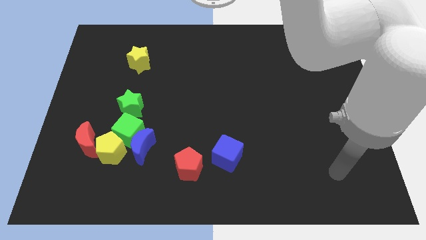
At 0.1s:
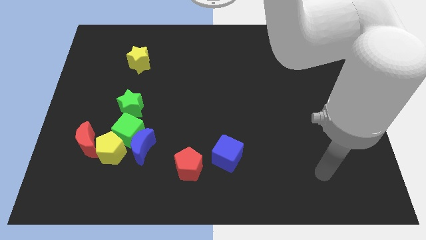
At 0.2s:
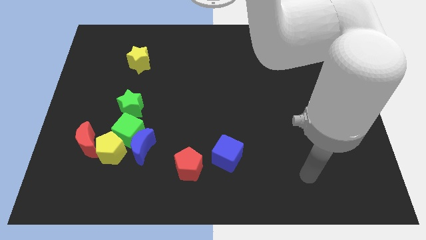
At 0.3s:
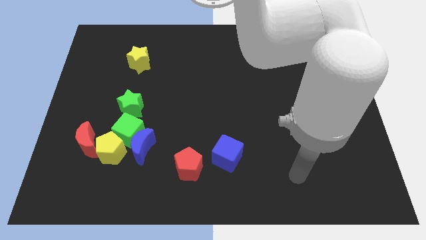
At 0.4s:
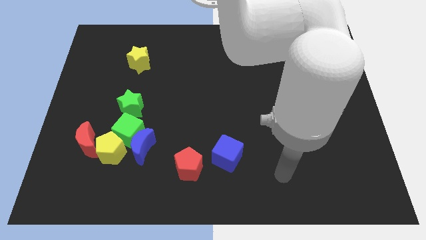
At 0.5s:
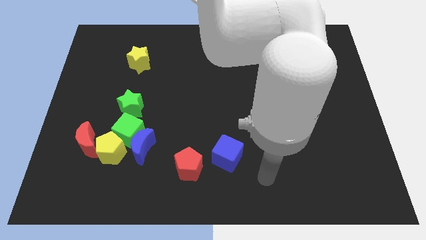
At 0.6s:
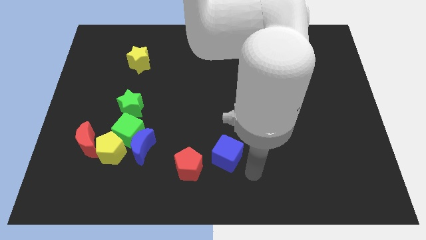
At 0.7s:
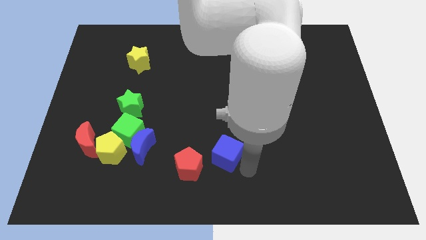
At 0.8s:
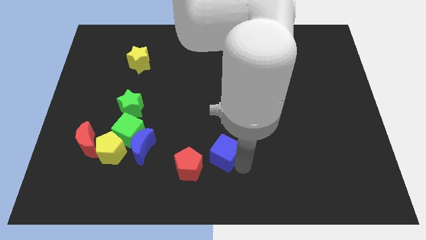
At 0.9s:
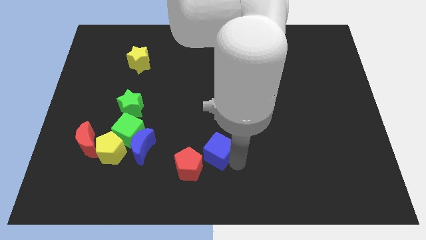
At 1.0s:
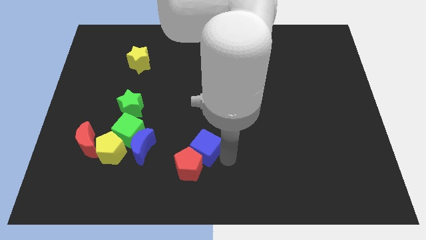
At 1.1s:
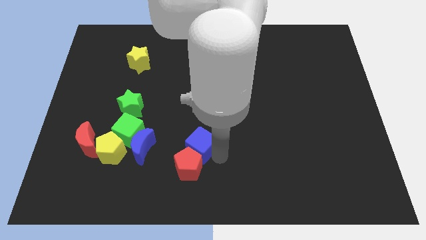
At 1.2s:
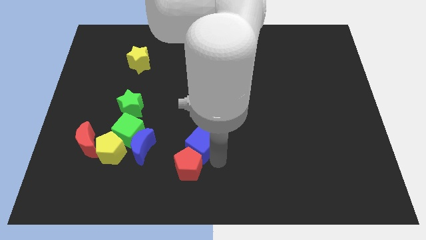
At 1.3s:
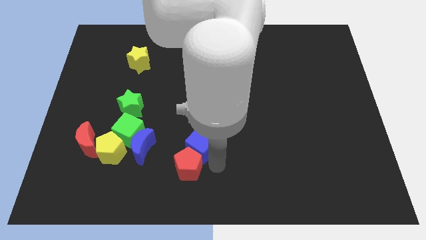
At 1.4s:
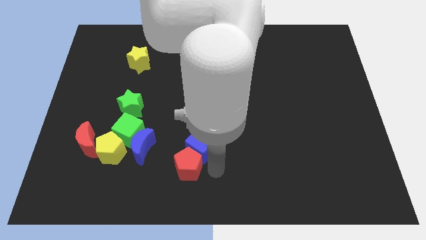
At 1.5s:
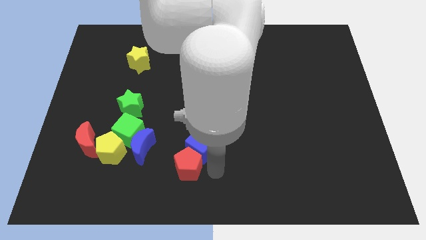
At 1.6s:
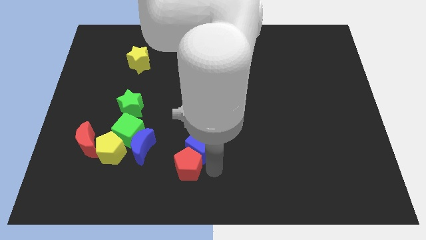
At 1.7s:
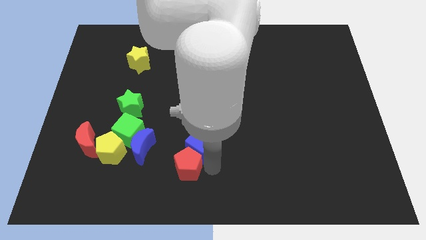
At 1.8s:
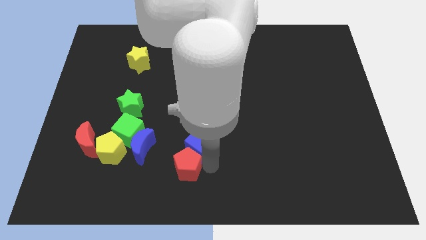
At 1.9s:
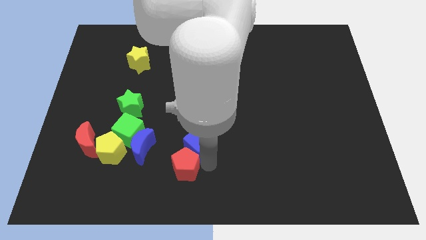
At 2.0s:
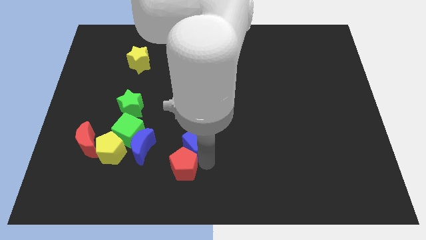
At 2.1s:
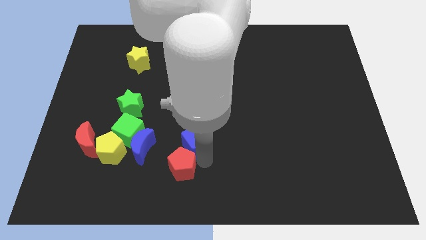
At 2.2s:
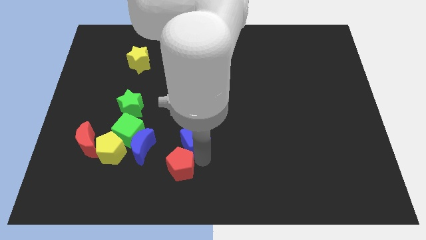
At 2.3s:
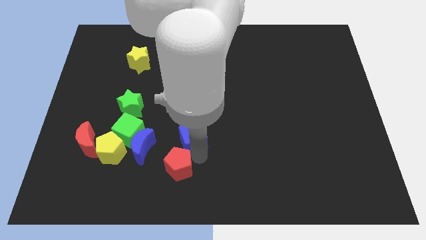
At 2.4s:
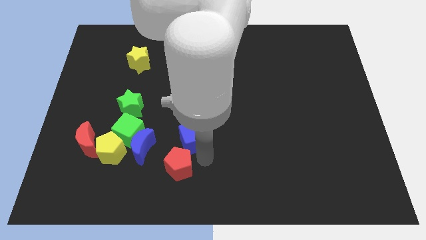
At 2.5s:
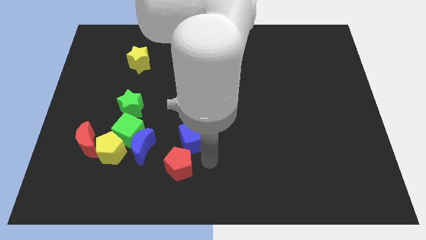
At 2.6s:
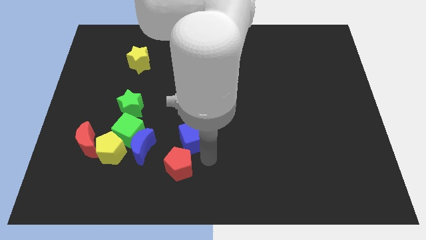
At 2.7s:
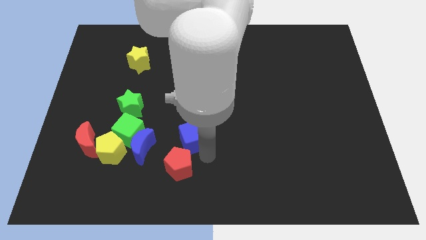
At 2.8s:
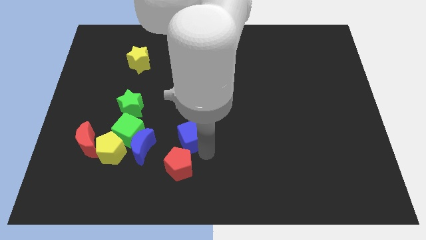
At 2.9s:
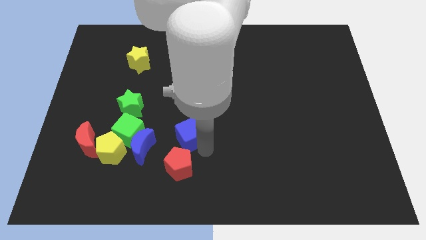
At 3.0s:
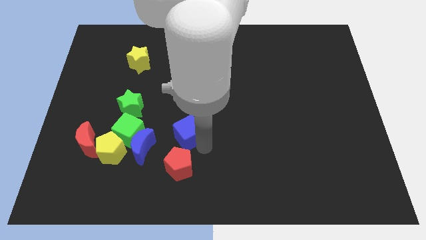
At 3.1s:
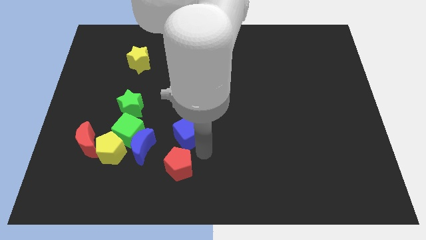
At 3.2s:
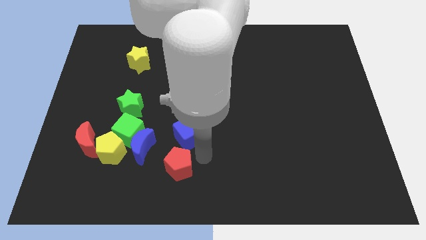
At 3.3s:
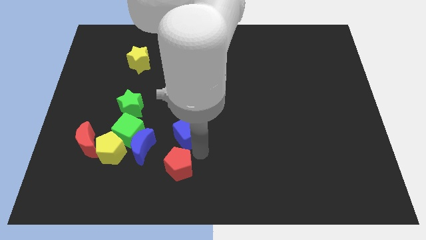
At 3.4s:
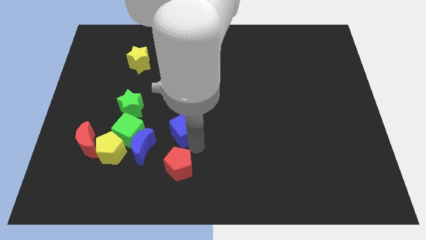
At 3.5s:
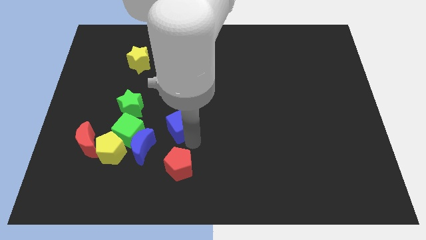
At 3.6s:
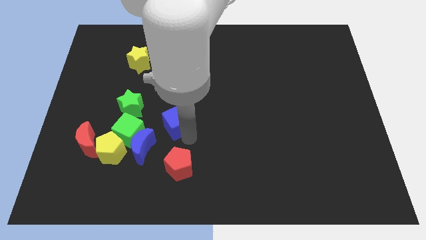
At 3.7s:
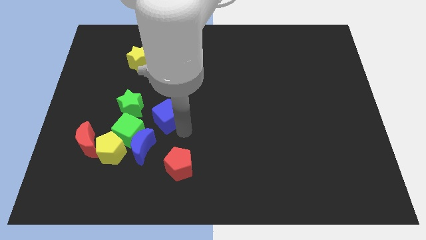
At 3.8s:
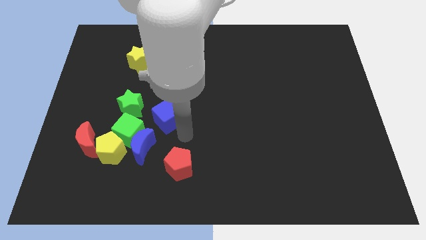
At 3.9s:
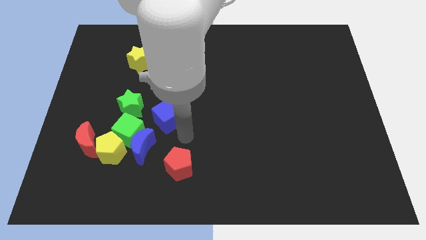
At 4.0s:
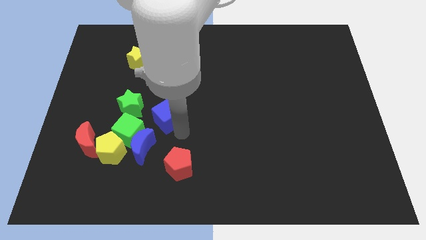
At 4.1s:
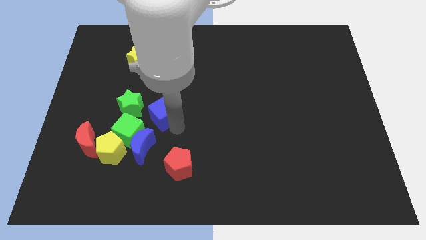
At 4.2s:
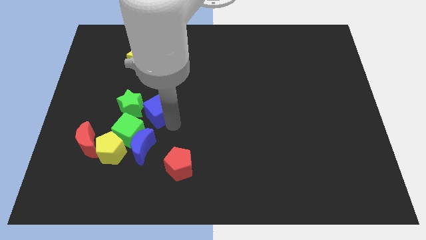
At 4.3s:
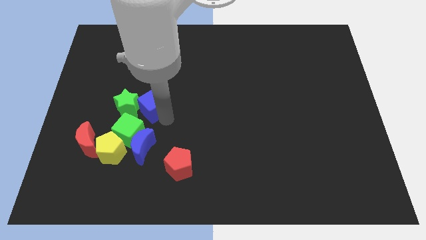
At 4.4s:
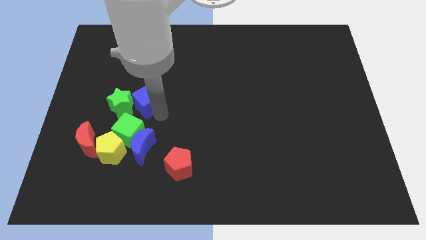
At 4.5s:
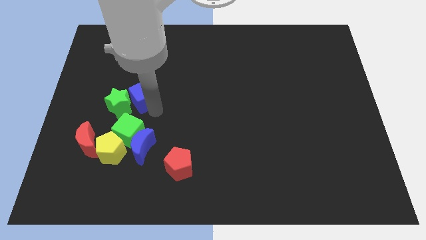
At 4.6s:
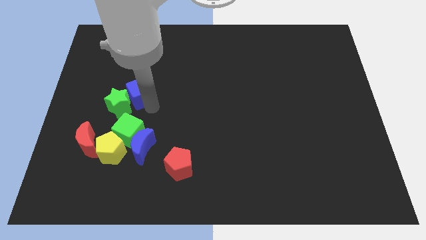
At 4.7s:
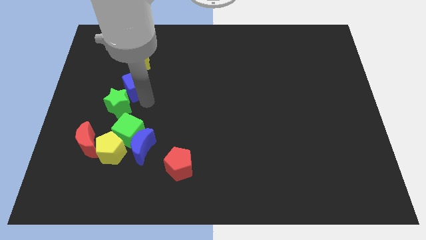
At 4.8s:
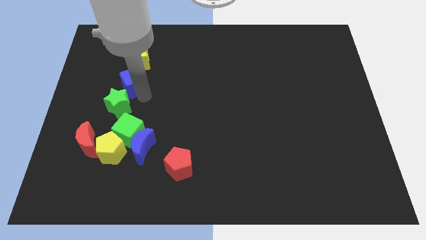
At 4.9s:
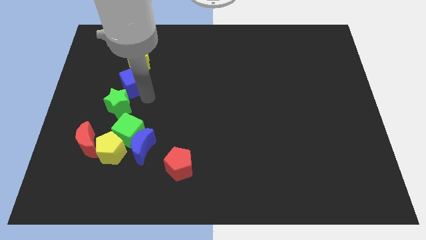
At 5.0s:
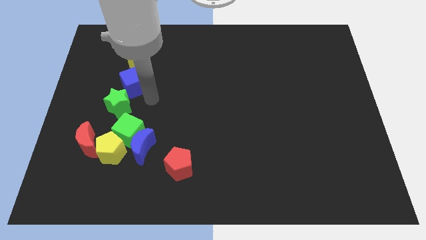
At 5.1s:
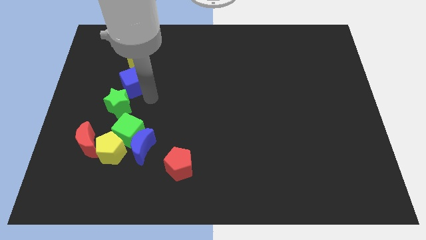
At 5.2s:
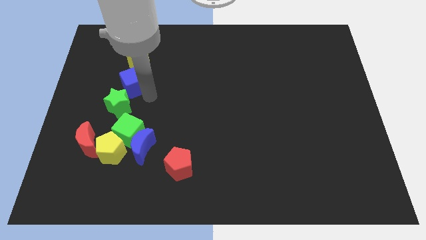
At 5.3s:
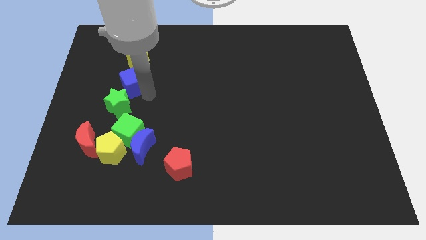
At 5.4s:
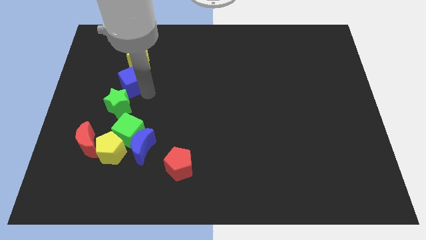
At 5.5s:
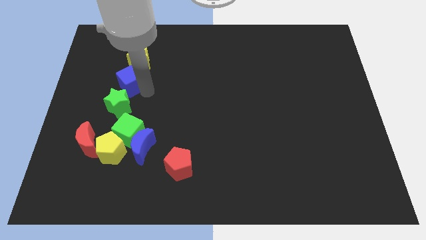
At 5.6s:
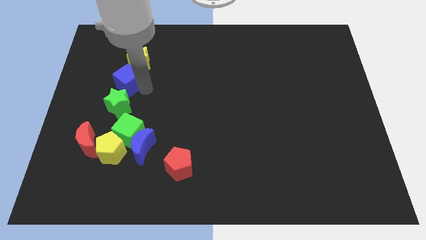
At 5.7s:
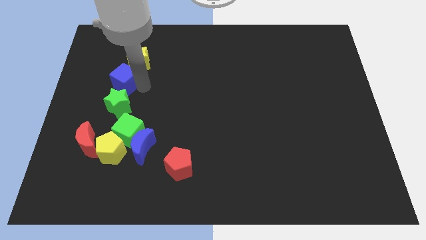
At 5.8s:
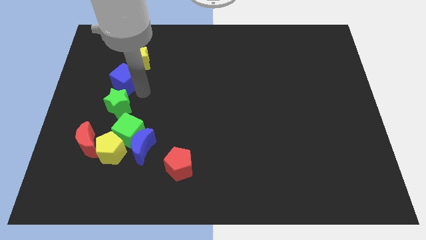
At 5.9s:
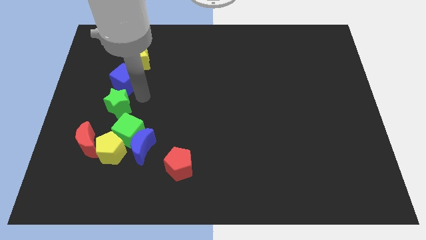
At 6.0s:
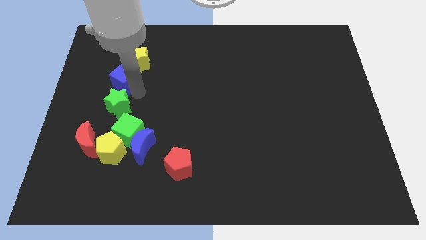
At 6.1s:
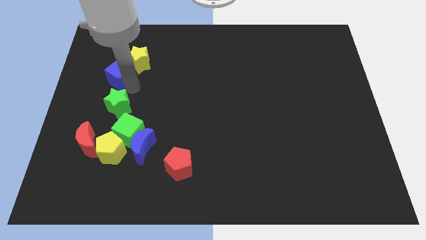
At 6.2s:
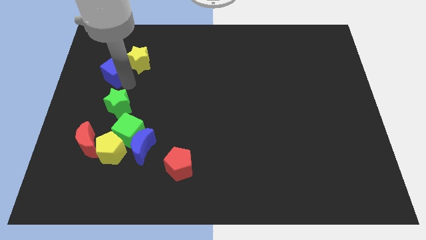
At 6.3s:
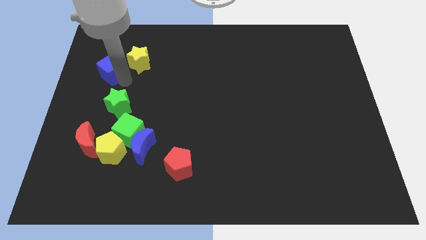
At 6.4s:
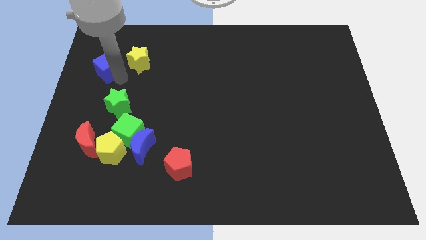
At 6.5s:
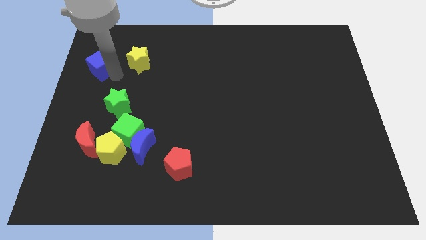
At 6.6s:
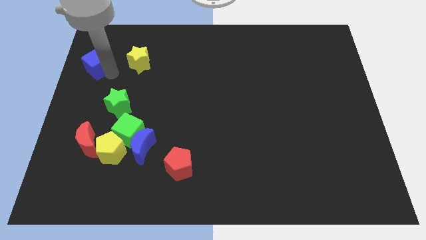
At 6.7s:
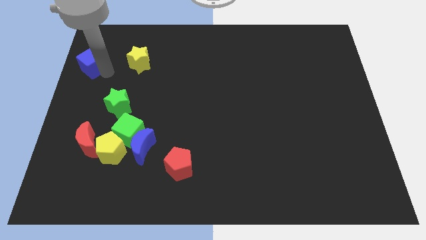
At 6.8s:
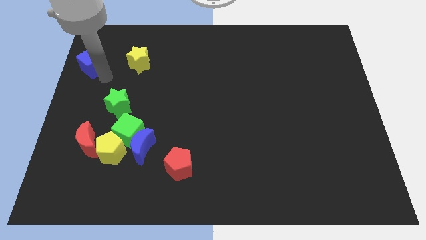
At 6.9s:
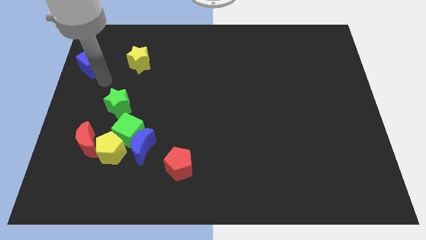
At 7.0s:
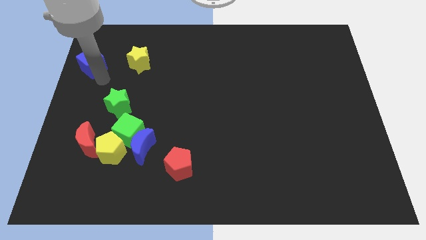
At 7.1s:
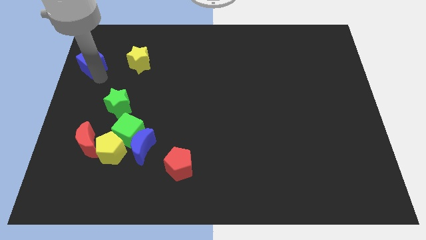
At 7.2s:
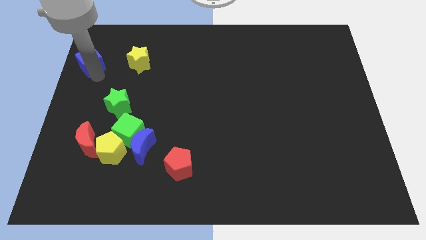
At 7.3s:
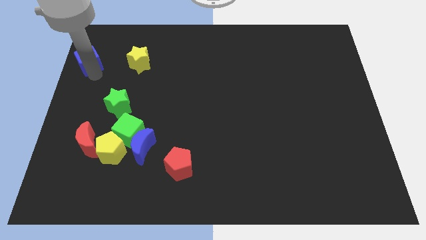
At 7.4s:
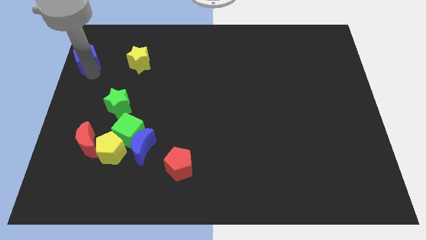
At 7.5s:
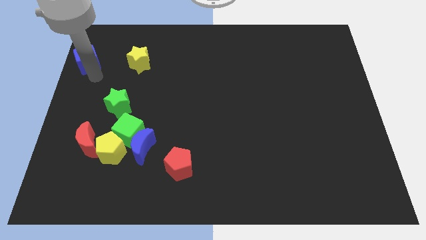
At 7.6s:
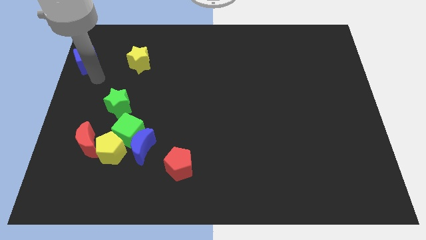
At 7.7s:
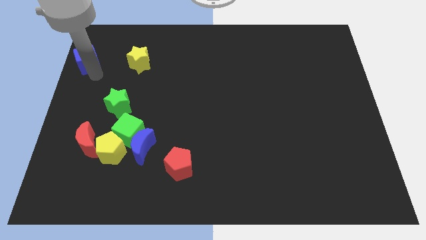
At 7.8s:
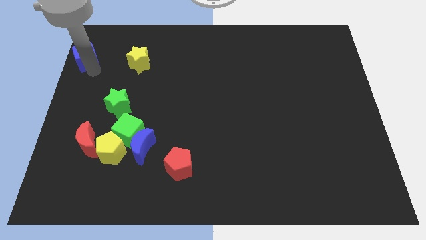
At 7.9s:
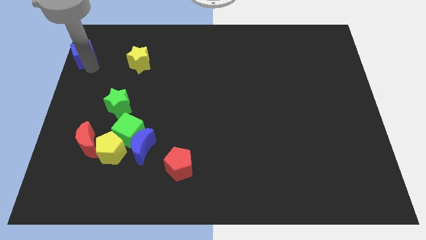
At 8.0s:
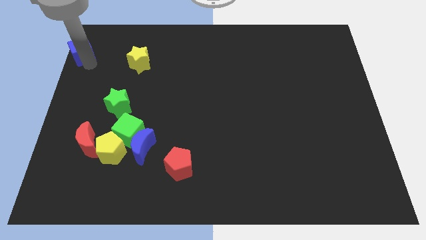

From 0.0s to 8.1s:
put the blue cube to the upper left corner
